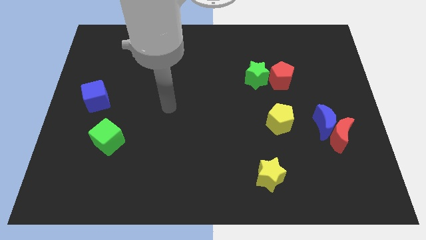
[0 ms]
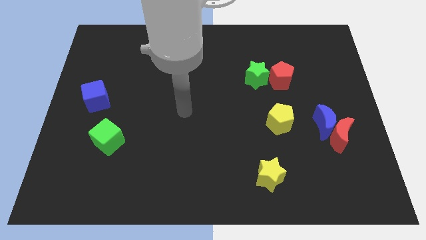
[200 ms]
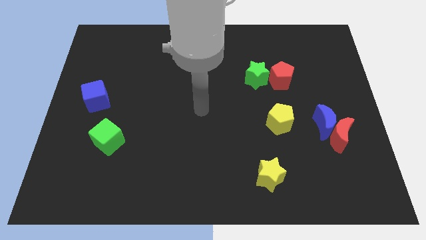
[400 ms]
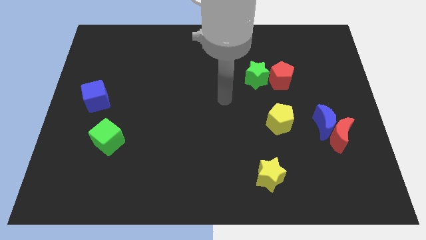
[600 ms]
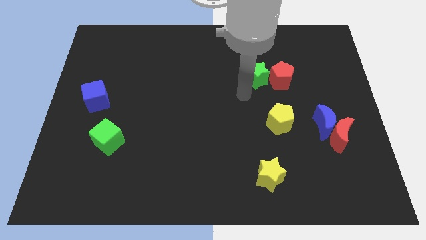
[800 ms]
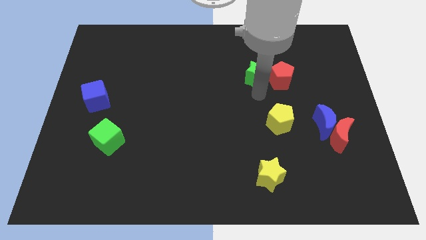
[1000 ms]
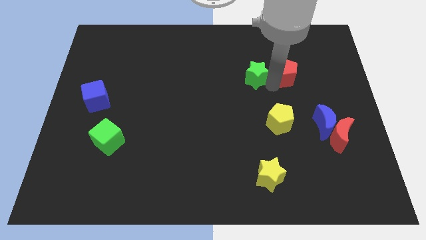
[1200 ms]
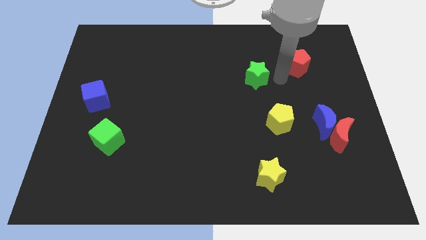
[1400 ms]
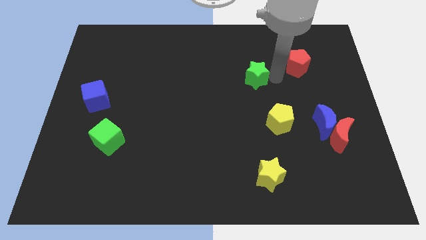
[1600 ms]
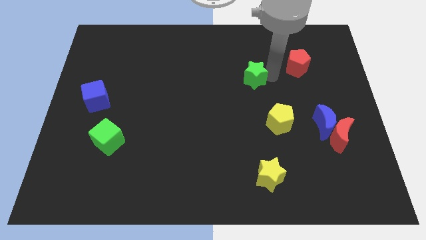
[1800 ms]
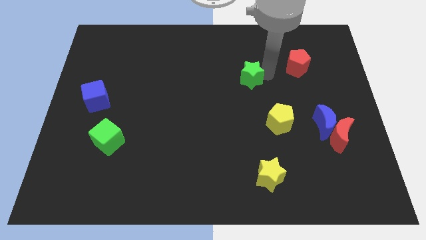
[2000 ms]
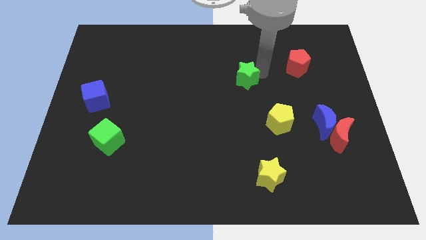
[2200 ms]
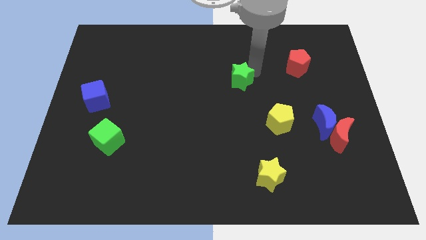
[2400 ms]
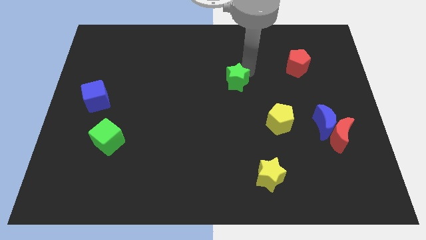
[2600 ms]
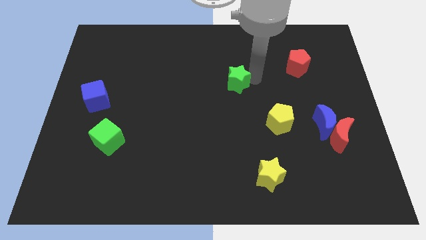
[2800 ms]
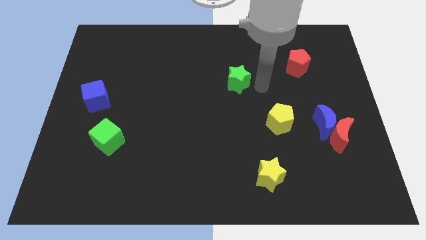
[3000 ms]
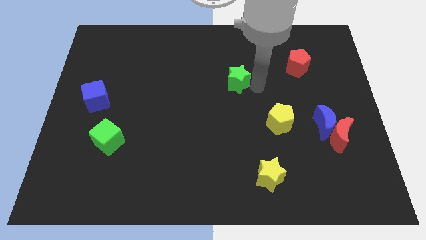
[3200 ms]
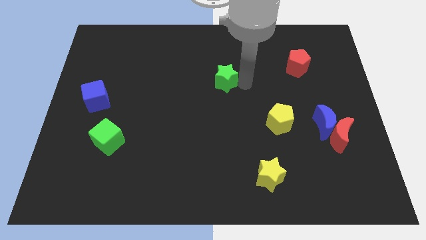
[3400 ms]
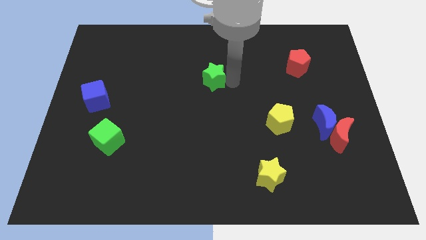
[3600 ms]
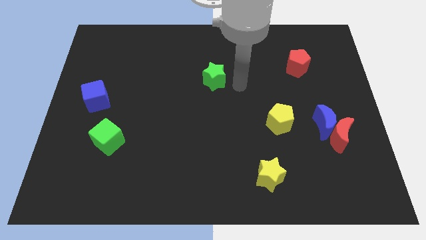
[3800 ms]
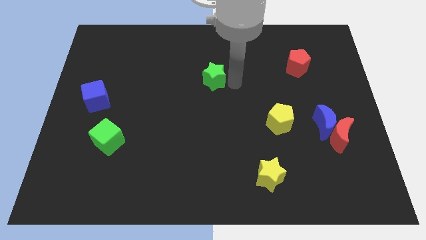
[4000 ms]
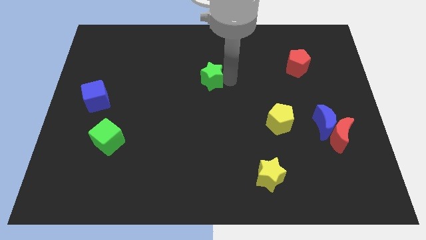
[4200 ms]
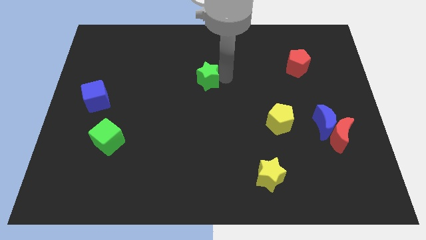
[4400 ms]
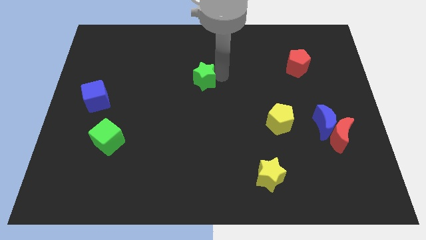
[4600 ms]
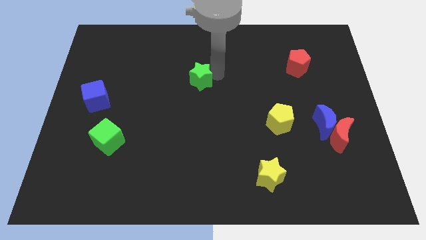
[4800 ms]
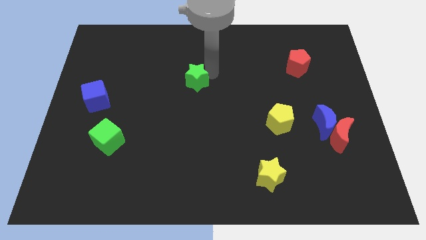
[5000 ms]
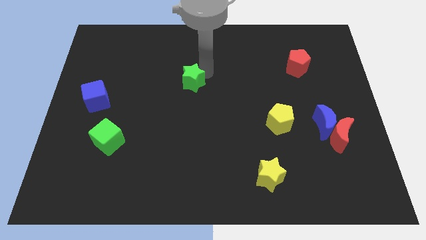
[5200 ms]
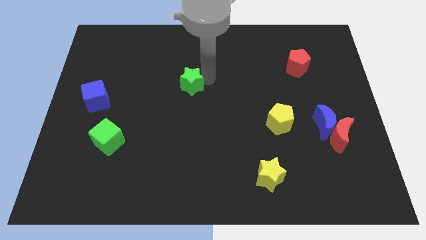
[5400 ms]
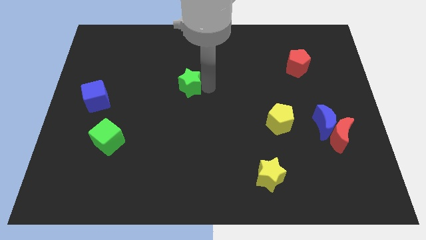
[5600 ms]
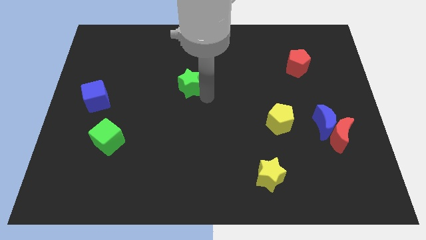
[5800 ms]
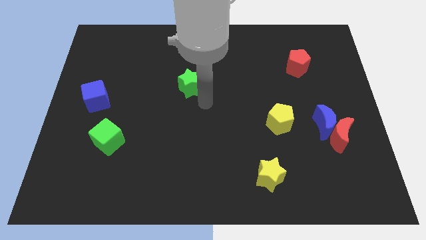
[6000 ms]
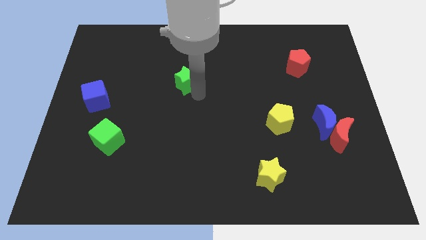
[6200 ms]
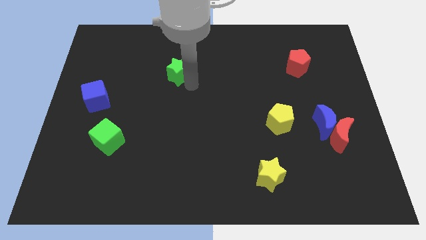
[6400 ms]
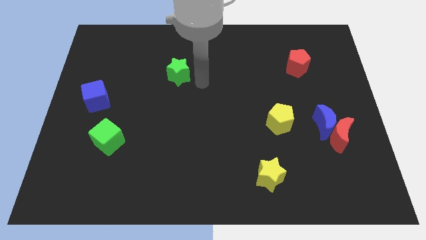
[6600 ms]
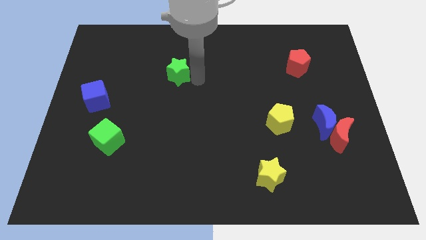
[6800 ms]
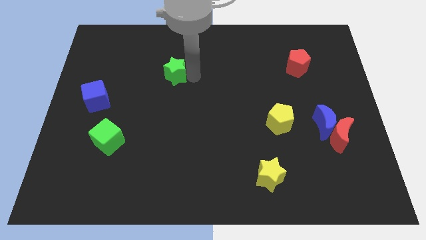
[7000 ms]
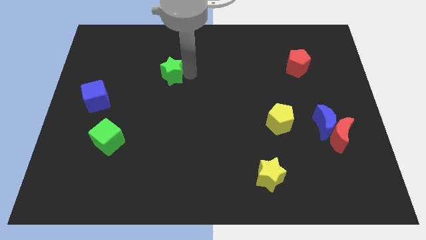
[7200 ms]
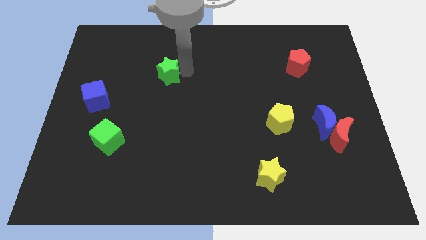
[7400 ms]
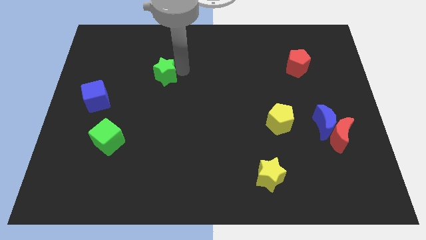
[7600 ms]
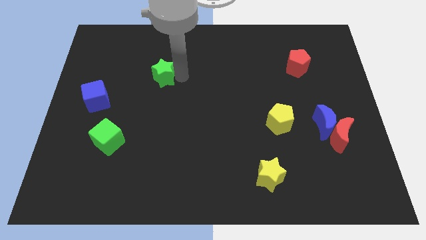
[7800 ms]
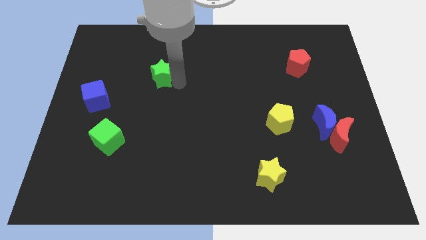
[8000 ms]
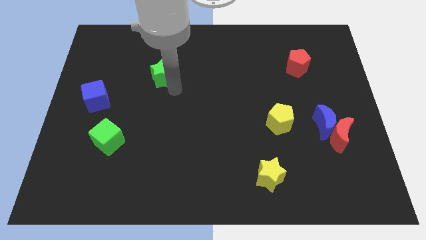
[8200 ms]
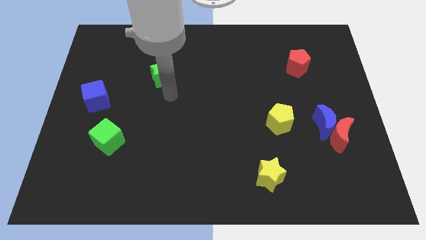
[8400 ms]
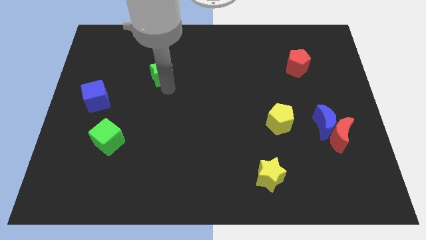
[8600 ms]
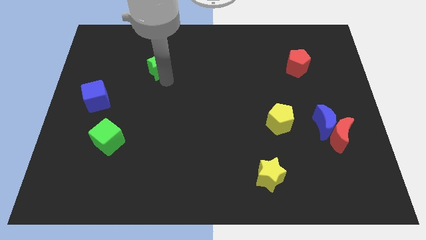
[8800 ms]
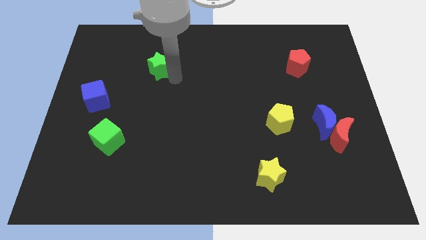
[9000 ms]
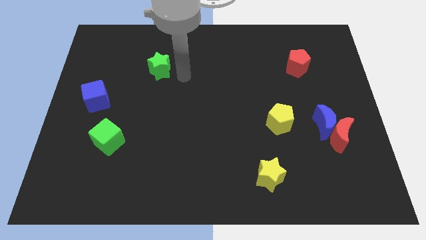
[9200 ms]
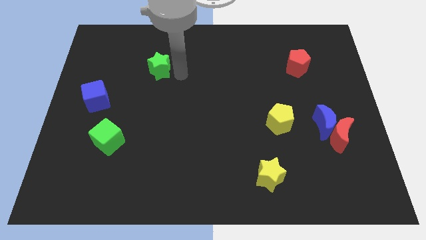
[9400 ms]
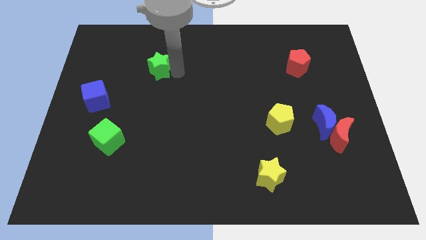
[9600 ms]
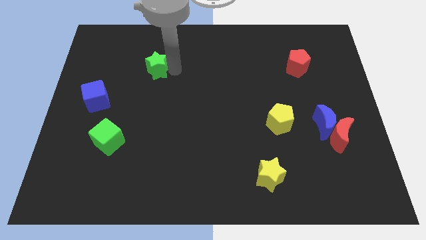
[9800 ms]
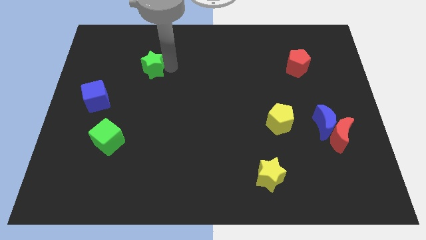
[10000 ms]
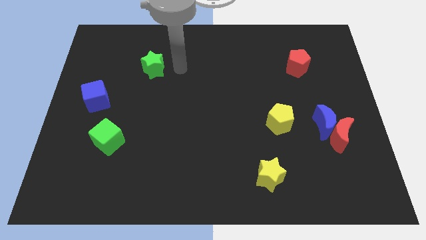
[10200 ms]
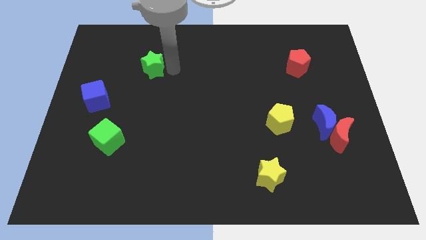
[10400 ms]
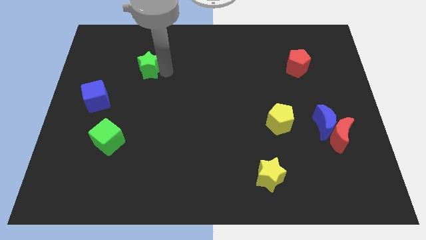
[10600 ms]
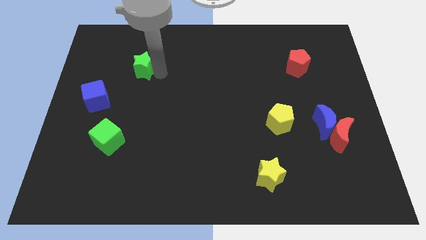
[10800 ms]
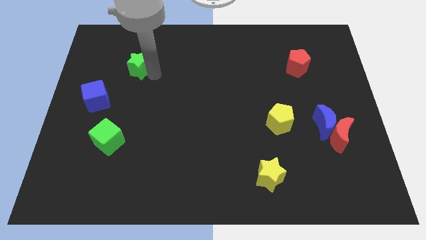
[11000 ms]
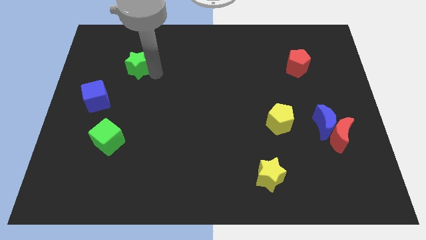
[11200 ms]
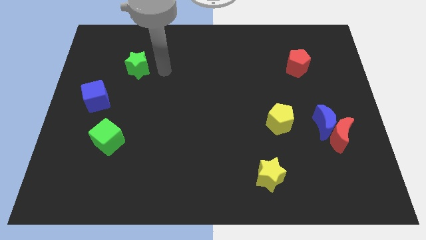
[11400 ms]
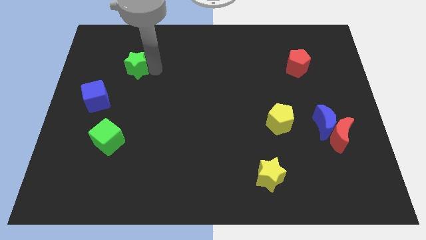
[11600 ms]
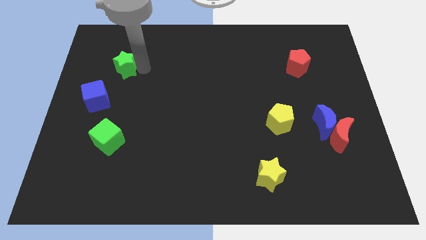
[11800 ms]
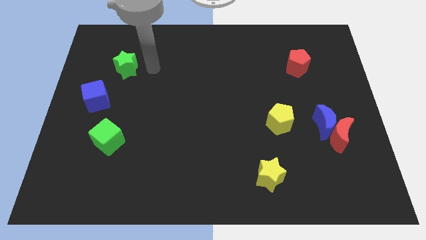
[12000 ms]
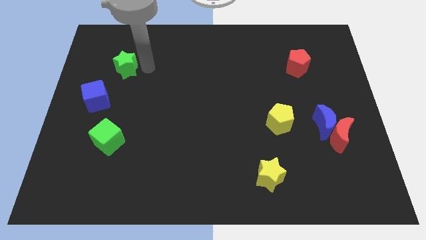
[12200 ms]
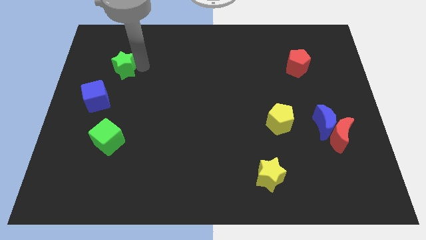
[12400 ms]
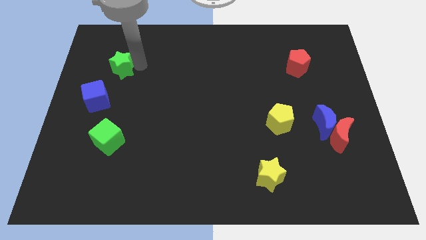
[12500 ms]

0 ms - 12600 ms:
move the green star to the top side of the blue cube

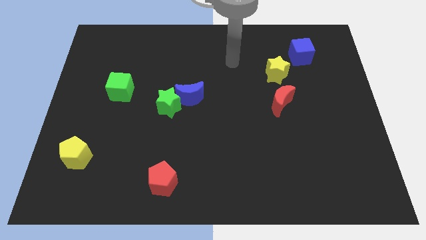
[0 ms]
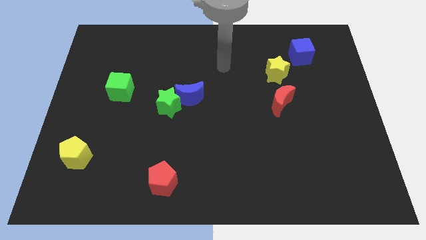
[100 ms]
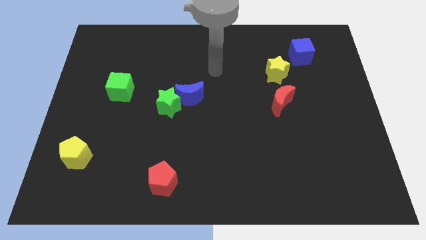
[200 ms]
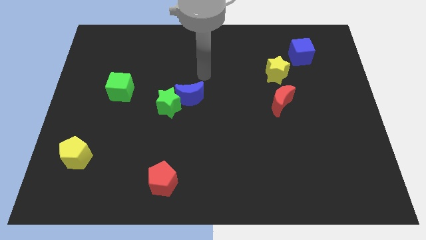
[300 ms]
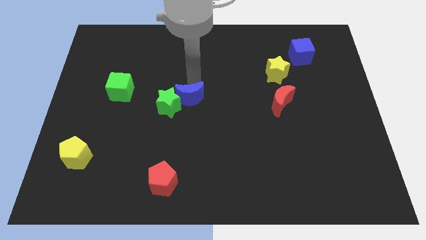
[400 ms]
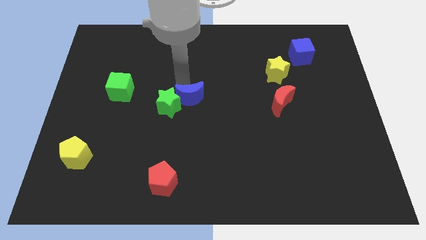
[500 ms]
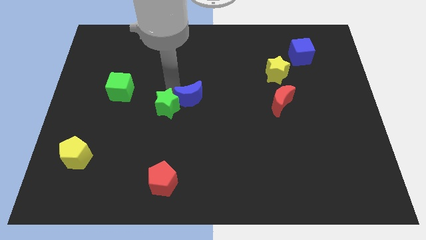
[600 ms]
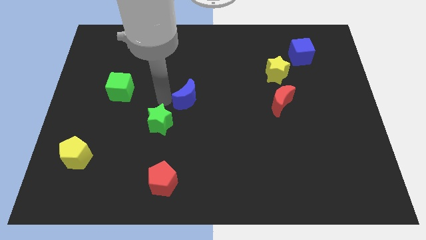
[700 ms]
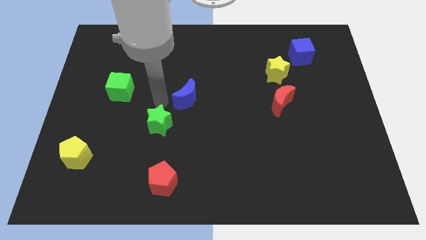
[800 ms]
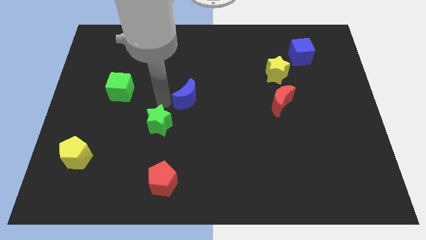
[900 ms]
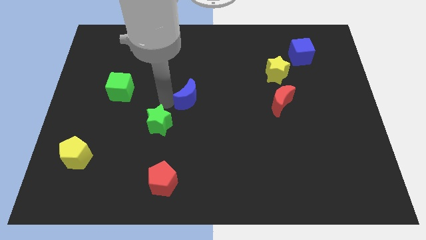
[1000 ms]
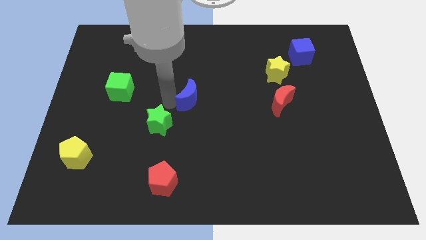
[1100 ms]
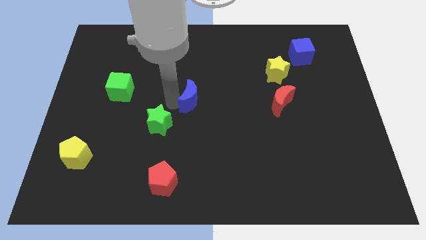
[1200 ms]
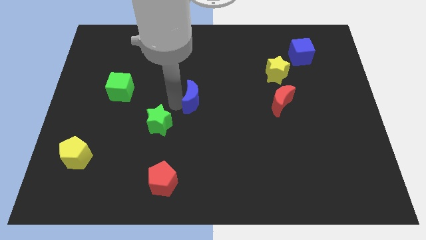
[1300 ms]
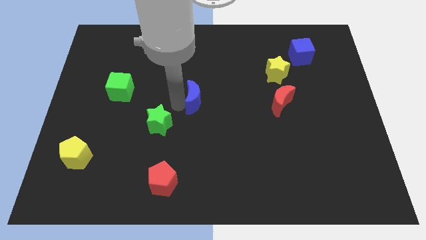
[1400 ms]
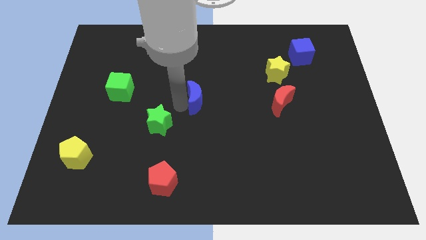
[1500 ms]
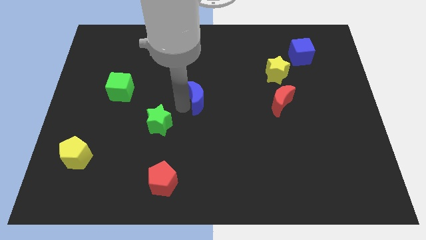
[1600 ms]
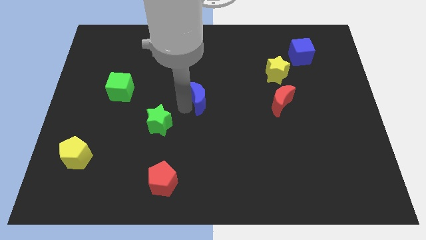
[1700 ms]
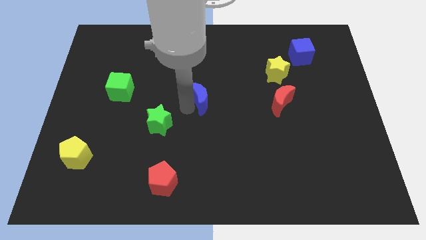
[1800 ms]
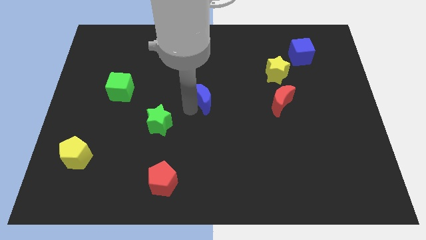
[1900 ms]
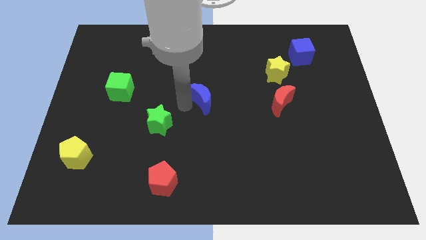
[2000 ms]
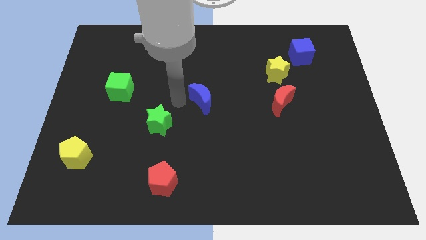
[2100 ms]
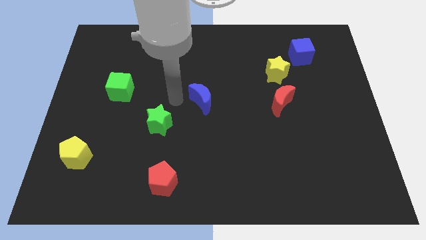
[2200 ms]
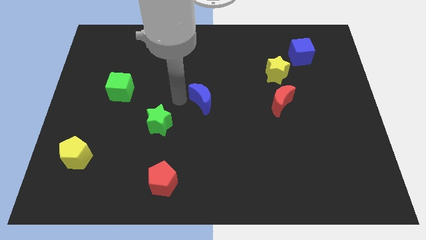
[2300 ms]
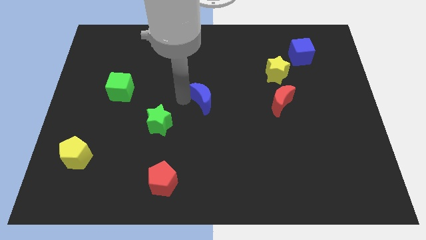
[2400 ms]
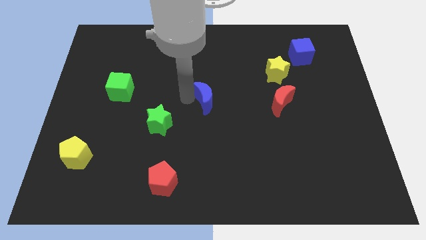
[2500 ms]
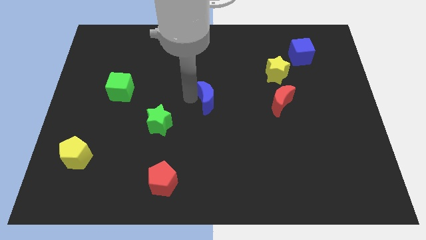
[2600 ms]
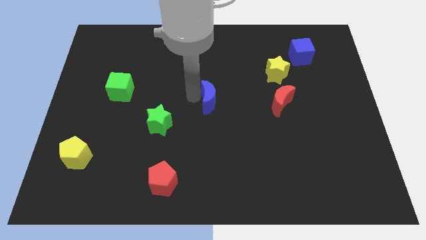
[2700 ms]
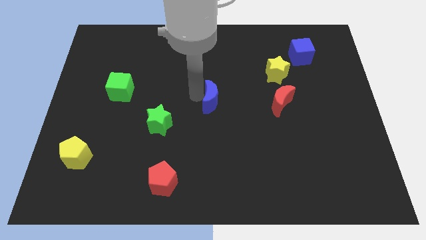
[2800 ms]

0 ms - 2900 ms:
move the blue moon just left of the red moon
